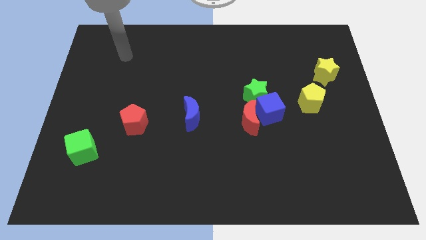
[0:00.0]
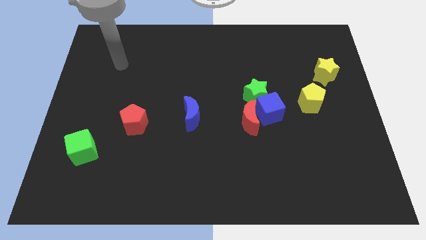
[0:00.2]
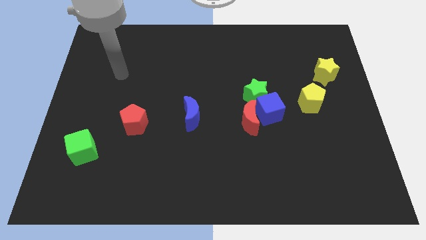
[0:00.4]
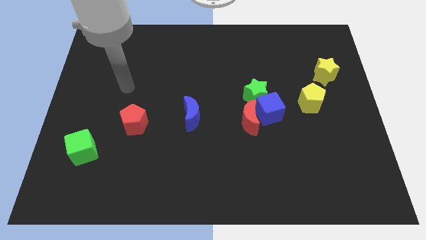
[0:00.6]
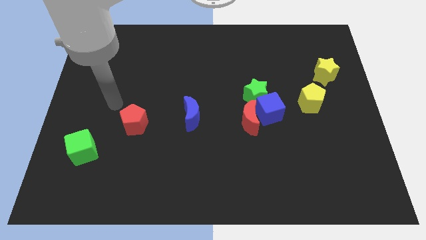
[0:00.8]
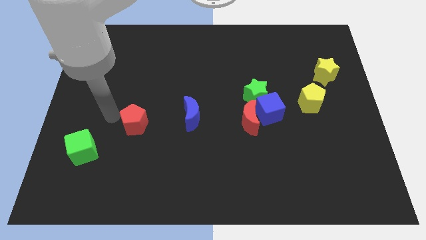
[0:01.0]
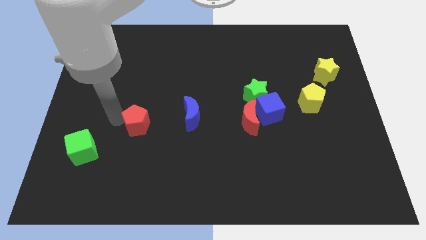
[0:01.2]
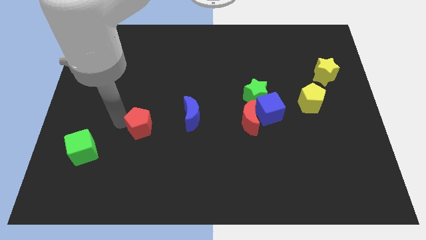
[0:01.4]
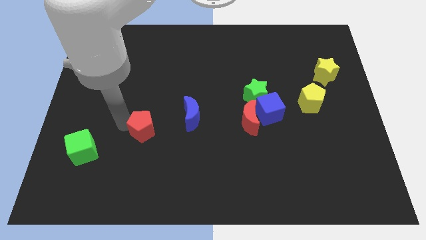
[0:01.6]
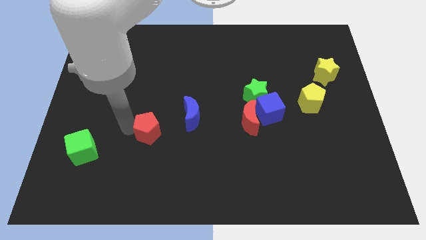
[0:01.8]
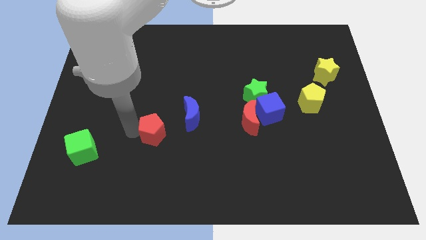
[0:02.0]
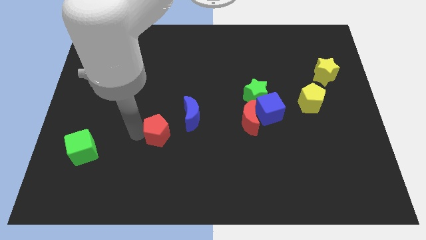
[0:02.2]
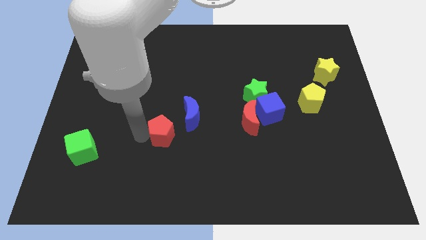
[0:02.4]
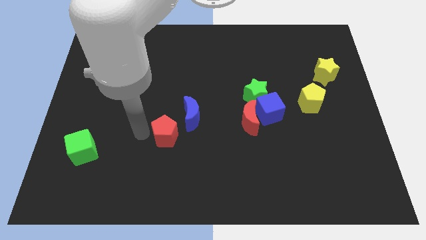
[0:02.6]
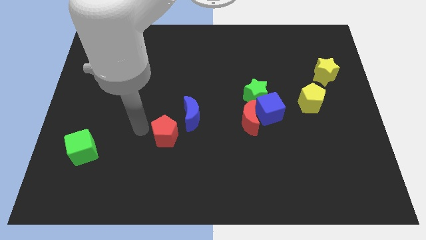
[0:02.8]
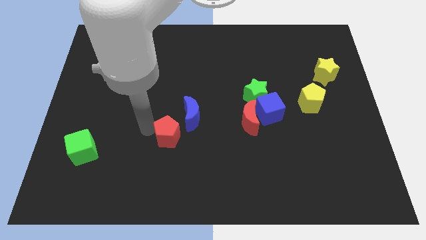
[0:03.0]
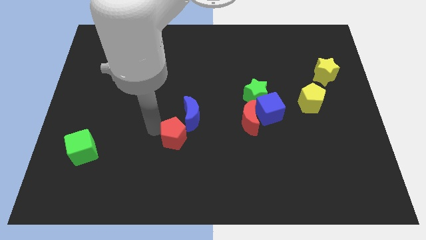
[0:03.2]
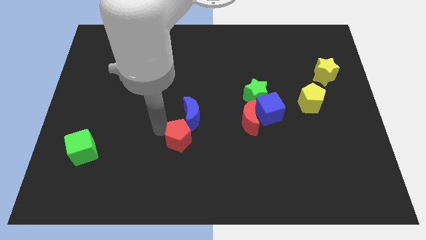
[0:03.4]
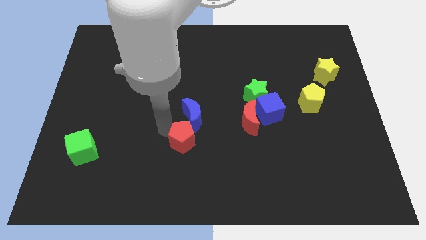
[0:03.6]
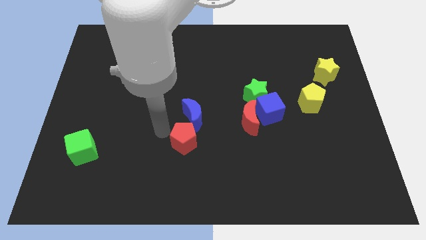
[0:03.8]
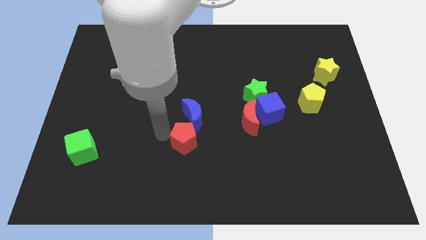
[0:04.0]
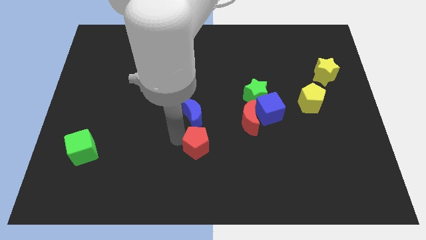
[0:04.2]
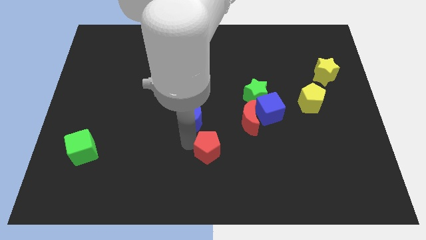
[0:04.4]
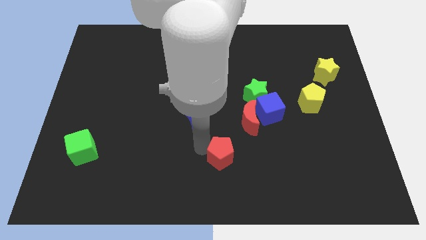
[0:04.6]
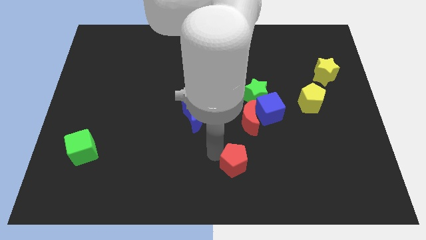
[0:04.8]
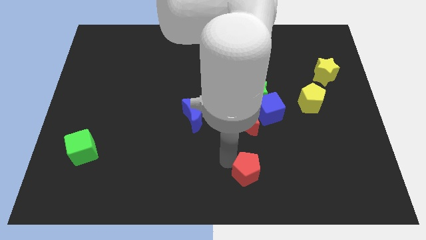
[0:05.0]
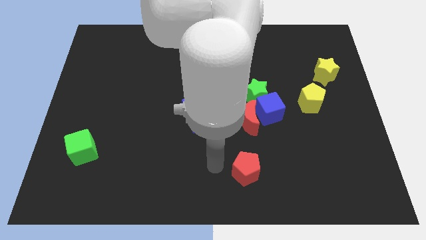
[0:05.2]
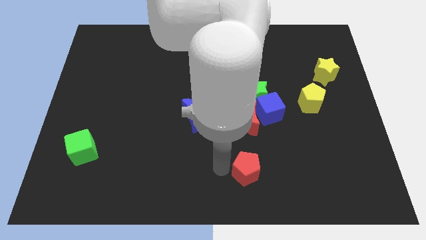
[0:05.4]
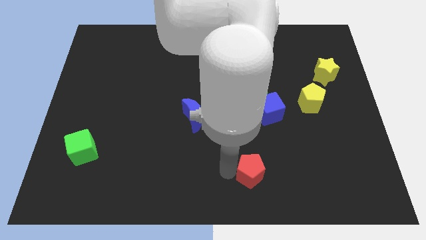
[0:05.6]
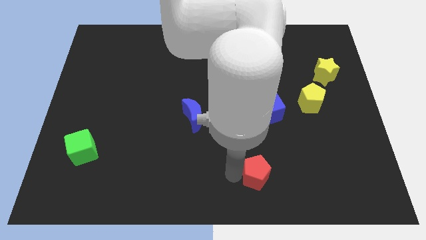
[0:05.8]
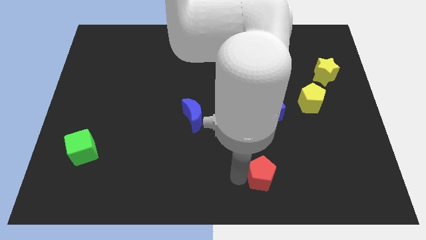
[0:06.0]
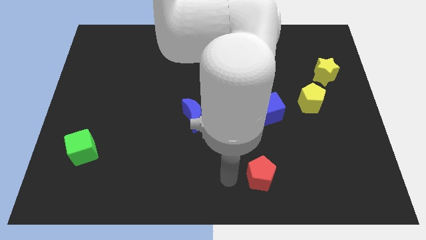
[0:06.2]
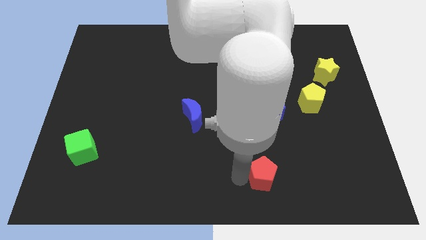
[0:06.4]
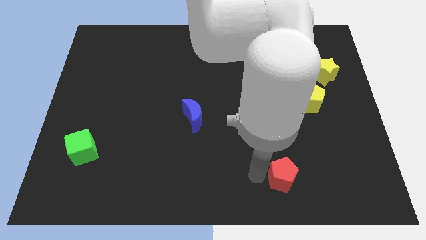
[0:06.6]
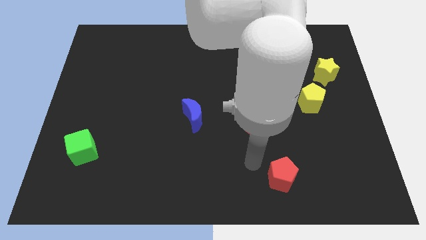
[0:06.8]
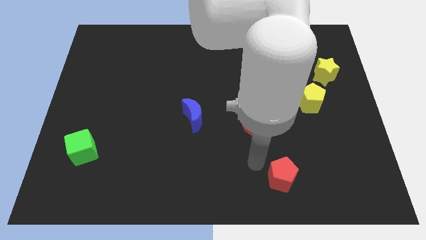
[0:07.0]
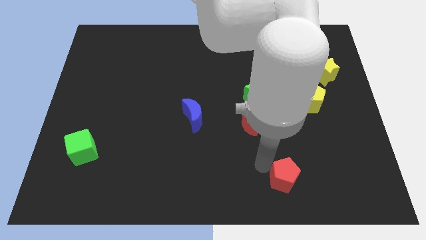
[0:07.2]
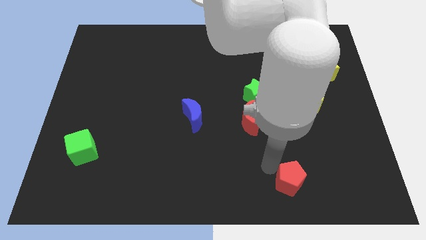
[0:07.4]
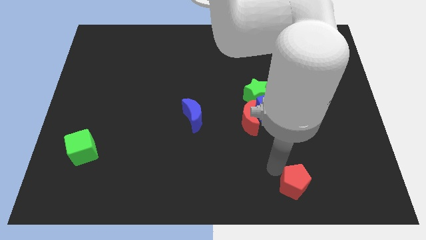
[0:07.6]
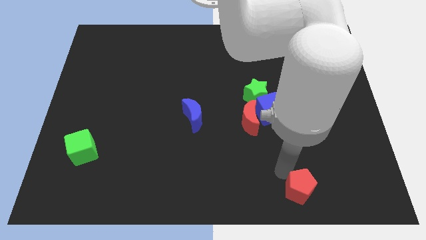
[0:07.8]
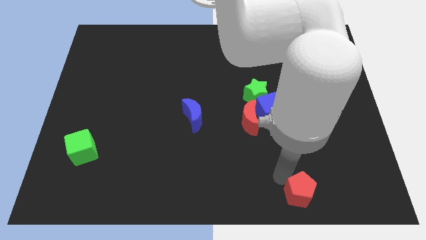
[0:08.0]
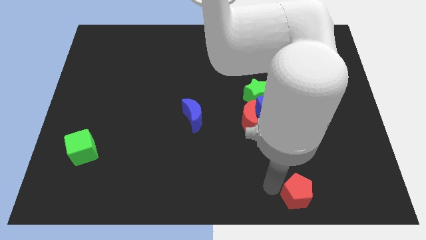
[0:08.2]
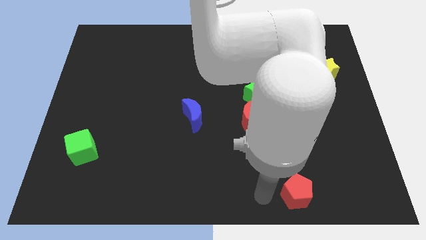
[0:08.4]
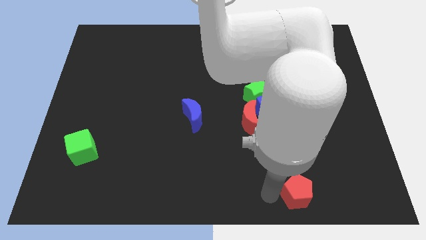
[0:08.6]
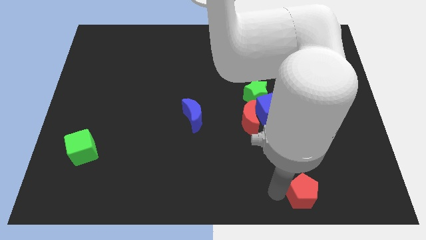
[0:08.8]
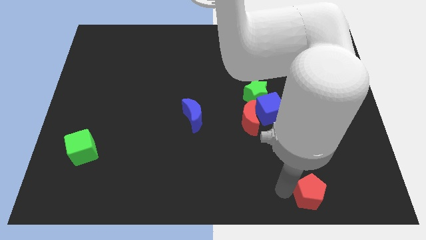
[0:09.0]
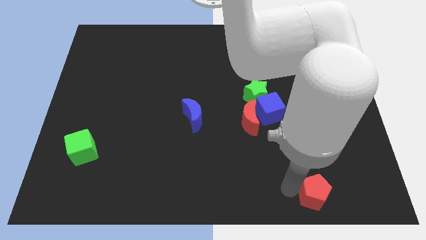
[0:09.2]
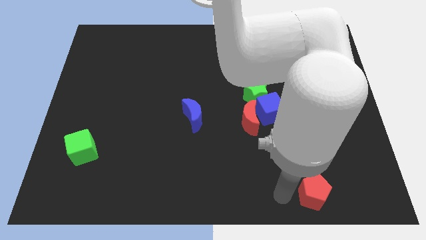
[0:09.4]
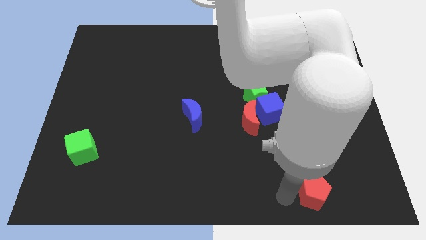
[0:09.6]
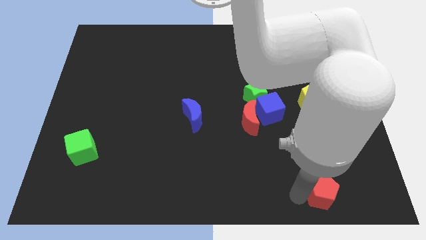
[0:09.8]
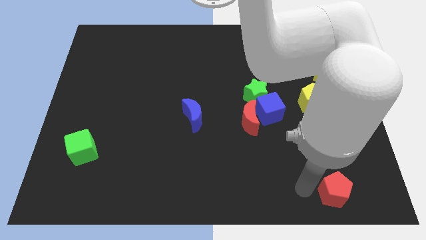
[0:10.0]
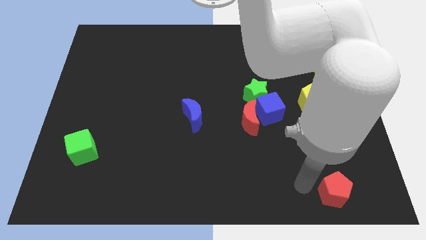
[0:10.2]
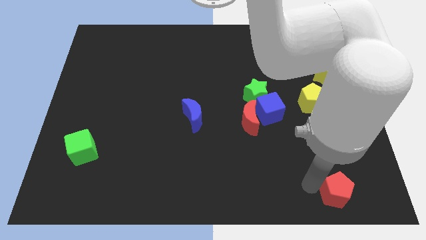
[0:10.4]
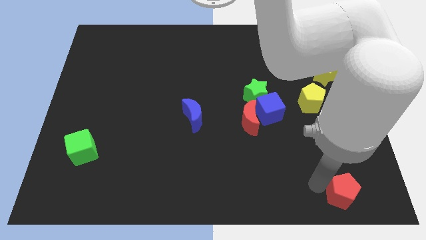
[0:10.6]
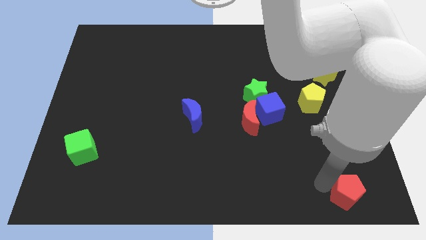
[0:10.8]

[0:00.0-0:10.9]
put the red pentagon to the bottom right corner

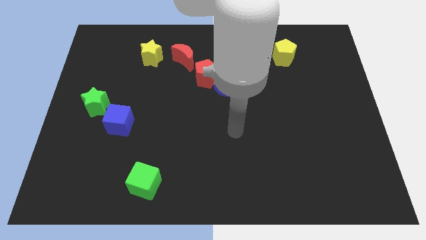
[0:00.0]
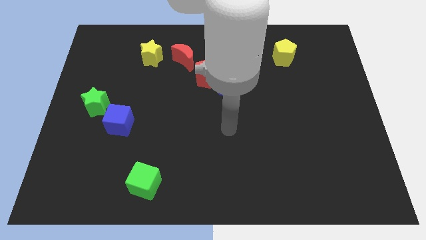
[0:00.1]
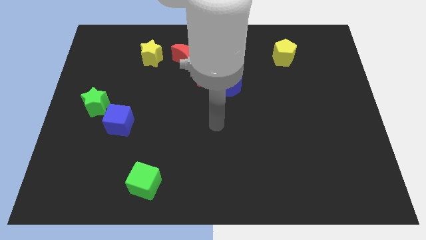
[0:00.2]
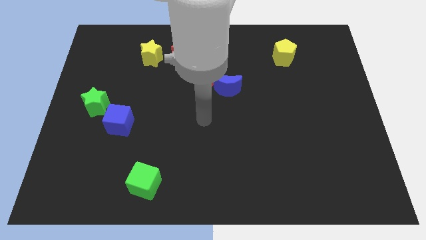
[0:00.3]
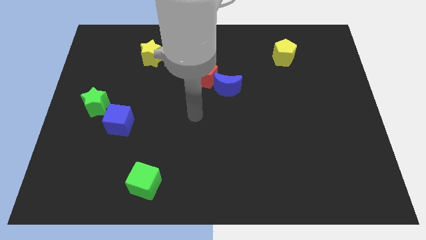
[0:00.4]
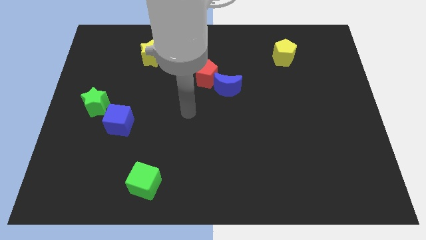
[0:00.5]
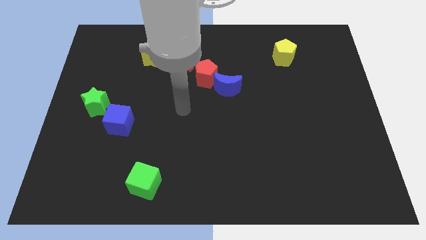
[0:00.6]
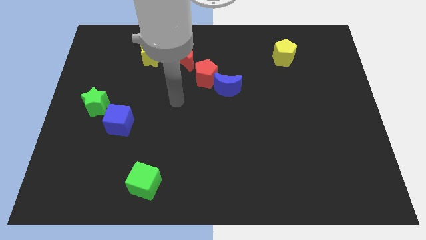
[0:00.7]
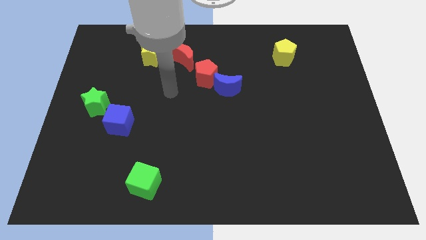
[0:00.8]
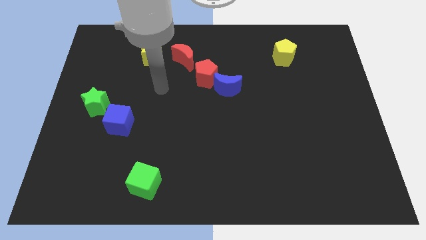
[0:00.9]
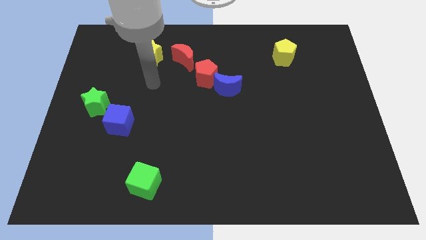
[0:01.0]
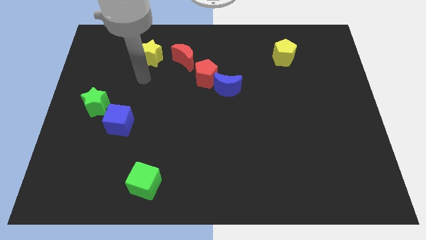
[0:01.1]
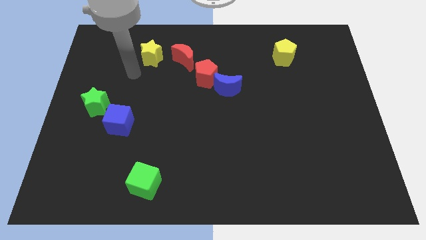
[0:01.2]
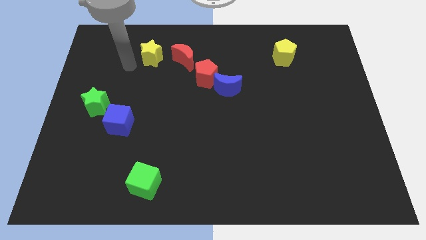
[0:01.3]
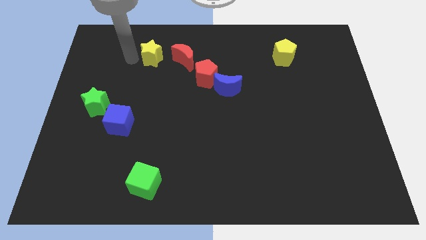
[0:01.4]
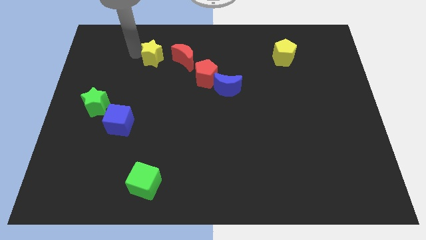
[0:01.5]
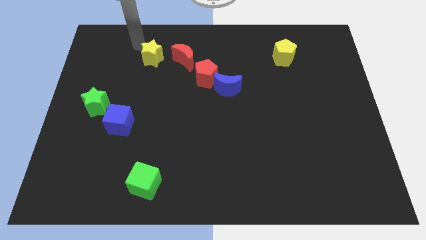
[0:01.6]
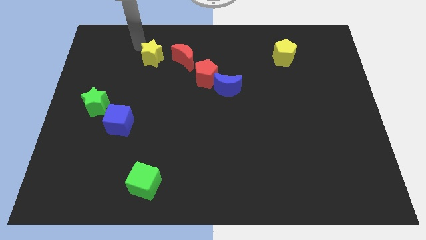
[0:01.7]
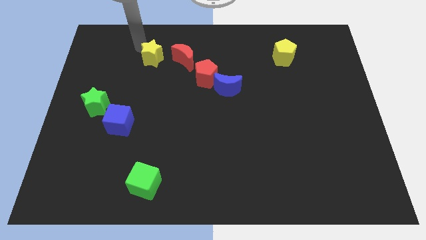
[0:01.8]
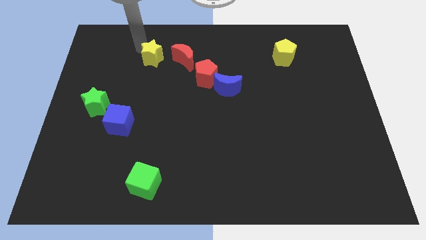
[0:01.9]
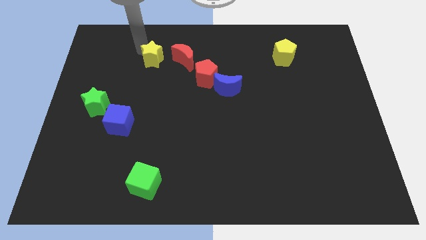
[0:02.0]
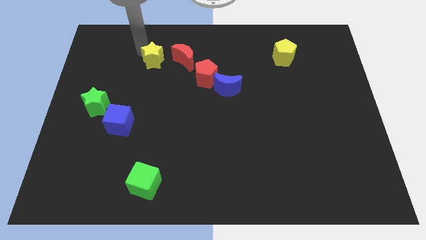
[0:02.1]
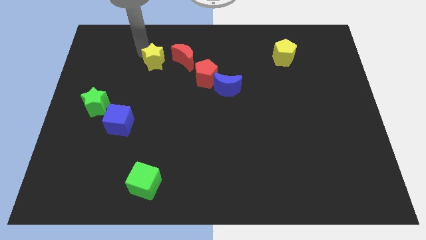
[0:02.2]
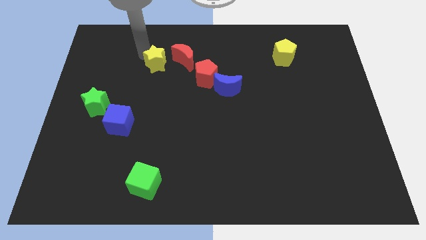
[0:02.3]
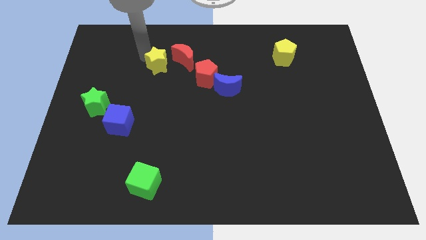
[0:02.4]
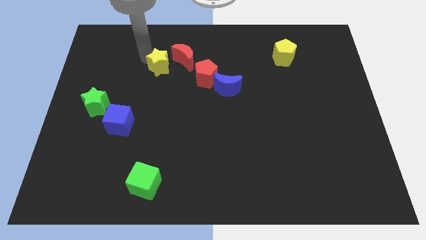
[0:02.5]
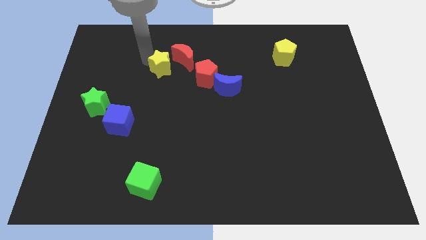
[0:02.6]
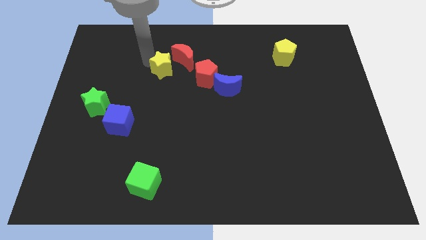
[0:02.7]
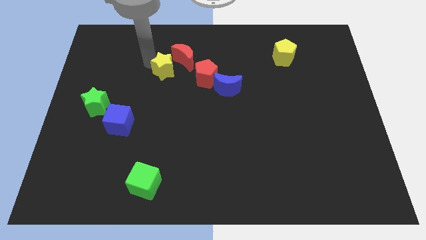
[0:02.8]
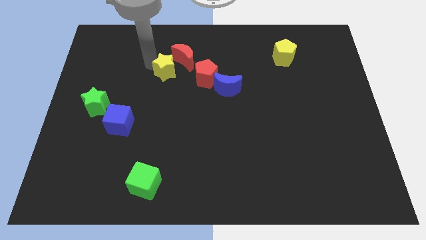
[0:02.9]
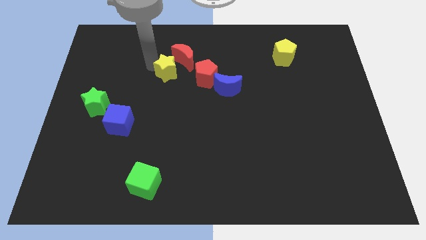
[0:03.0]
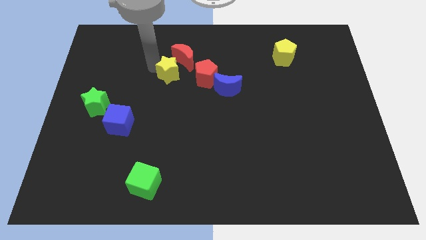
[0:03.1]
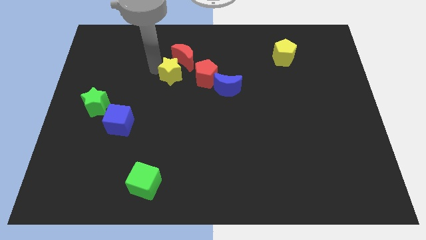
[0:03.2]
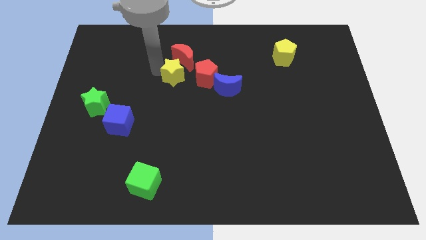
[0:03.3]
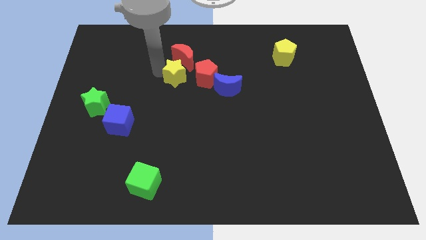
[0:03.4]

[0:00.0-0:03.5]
slide the yellow star to the middle of the board
